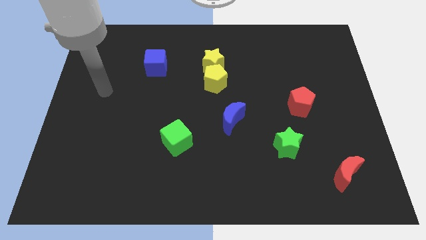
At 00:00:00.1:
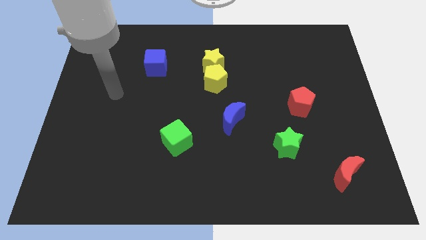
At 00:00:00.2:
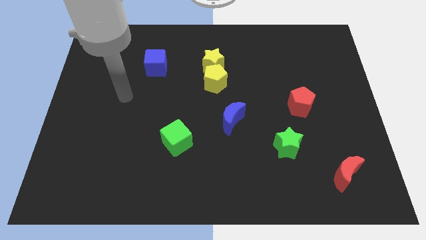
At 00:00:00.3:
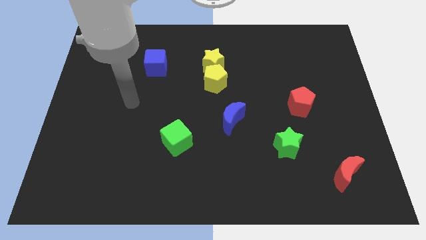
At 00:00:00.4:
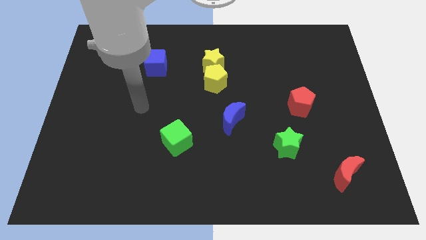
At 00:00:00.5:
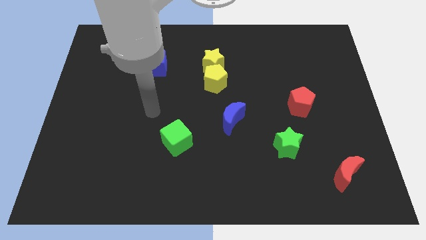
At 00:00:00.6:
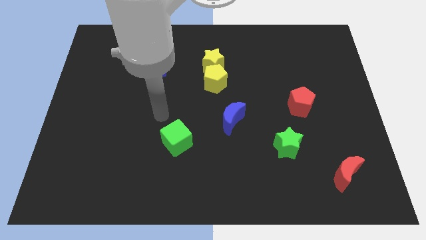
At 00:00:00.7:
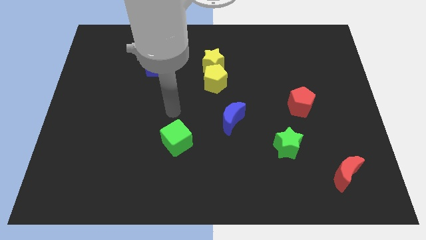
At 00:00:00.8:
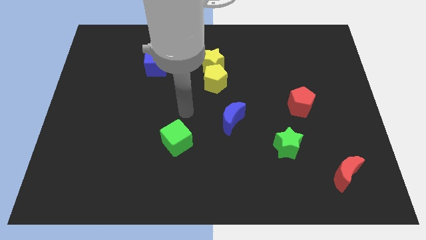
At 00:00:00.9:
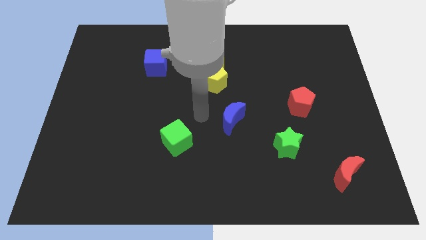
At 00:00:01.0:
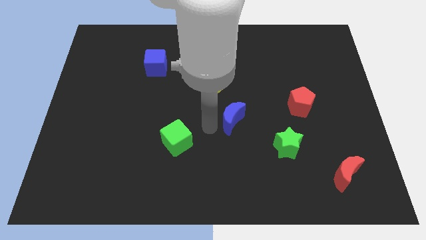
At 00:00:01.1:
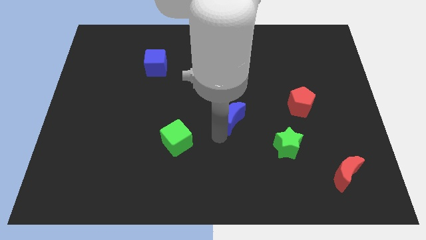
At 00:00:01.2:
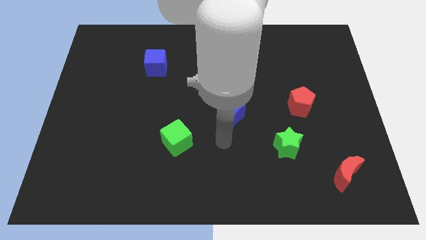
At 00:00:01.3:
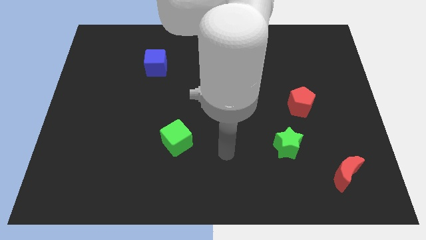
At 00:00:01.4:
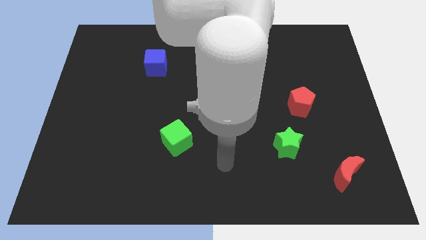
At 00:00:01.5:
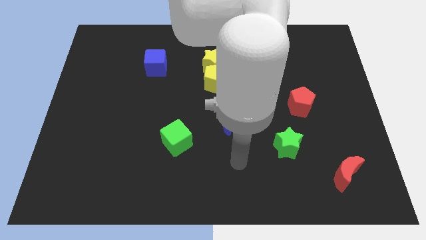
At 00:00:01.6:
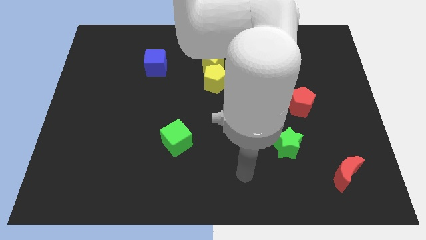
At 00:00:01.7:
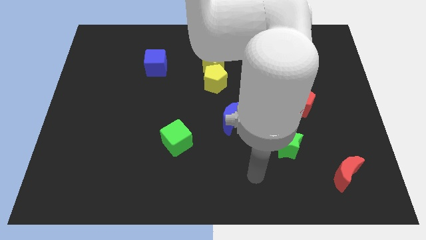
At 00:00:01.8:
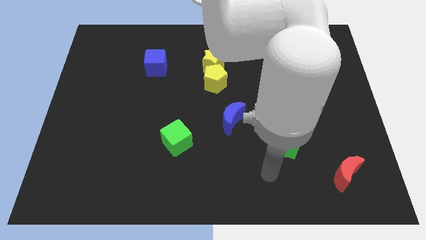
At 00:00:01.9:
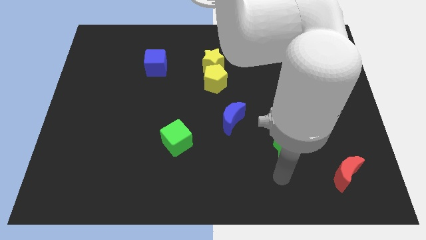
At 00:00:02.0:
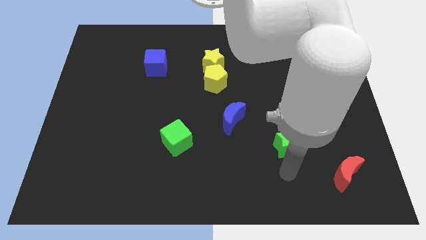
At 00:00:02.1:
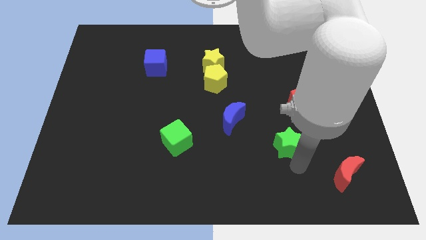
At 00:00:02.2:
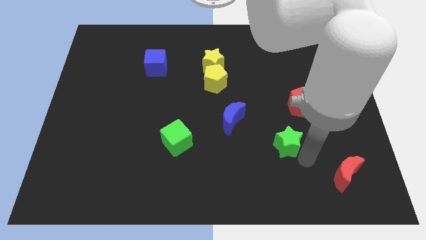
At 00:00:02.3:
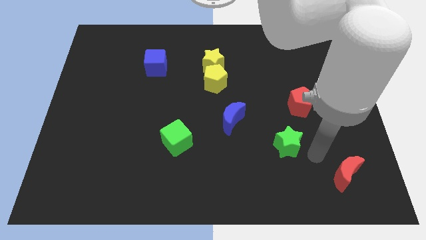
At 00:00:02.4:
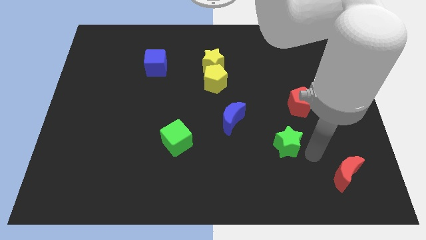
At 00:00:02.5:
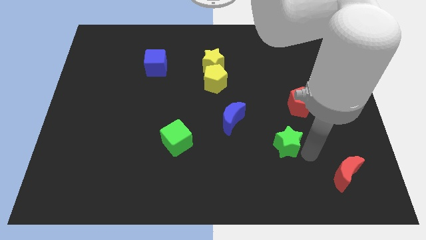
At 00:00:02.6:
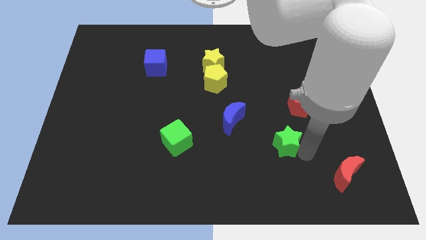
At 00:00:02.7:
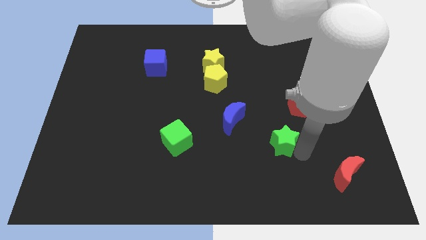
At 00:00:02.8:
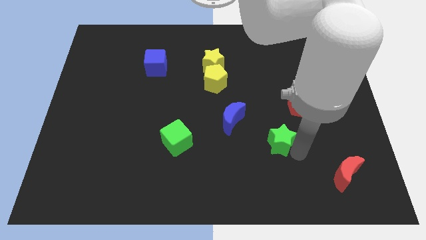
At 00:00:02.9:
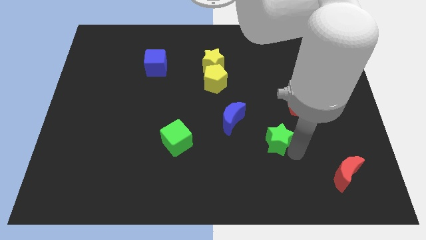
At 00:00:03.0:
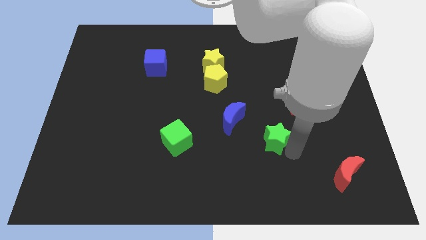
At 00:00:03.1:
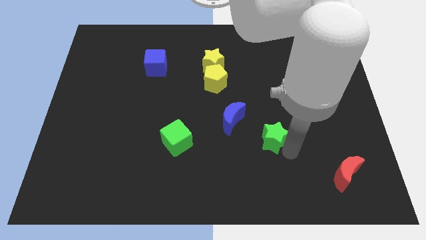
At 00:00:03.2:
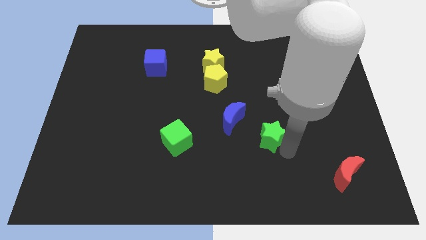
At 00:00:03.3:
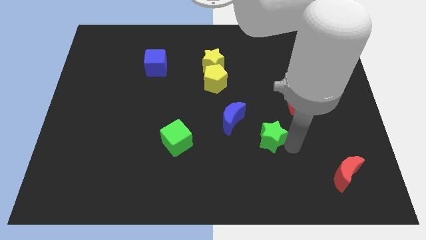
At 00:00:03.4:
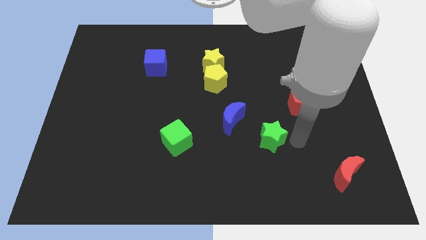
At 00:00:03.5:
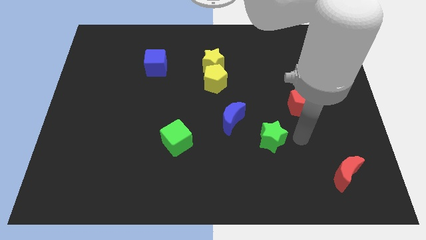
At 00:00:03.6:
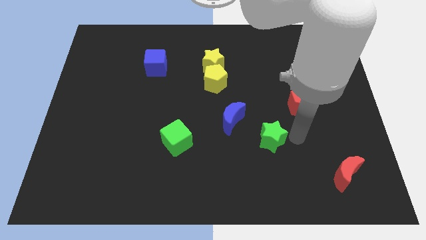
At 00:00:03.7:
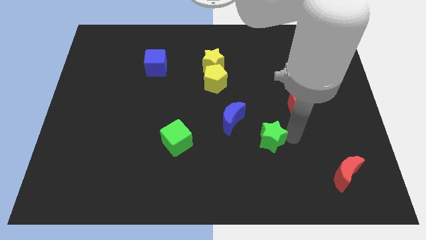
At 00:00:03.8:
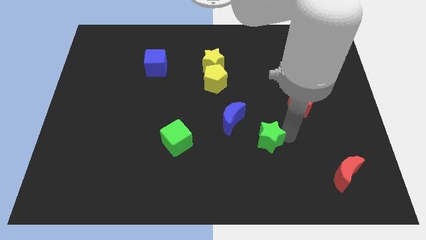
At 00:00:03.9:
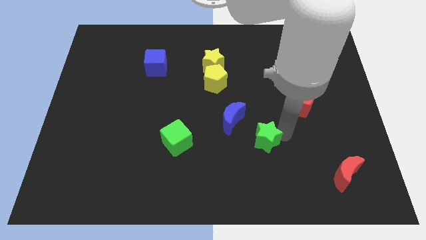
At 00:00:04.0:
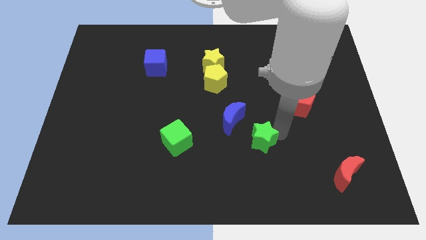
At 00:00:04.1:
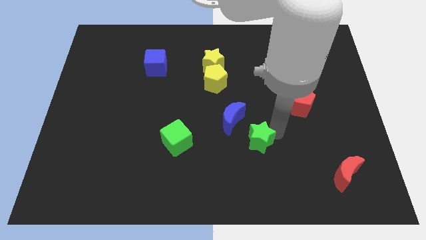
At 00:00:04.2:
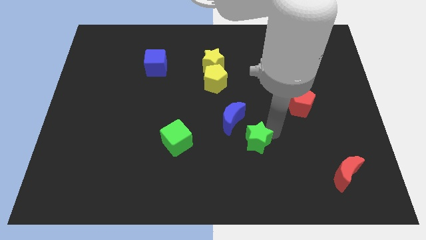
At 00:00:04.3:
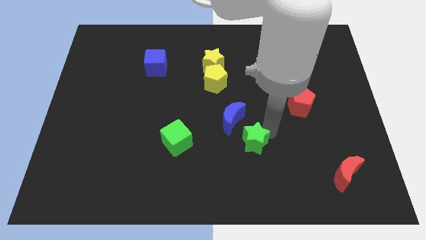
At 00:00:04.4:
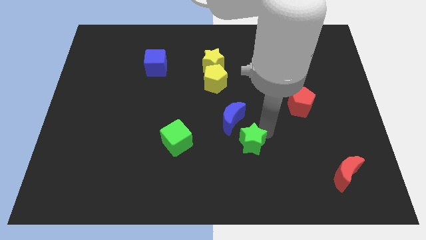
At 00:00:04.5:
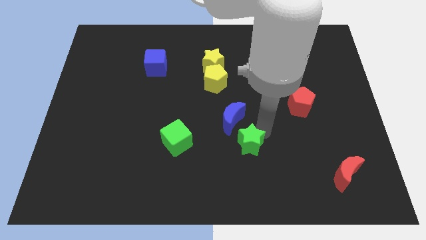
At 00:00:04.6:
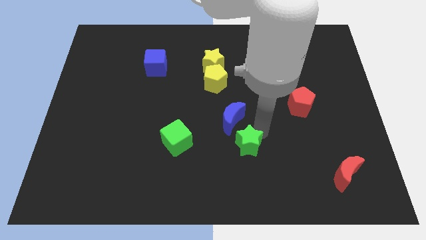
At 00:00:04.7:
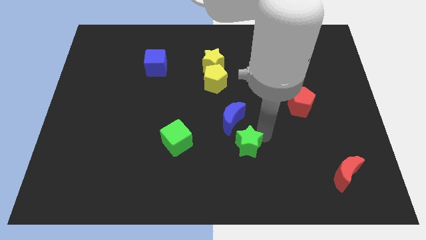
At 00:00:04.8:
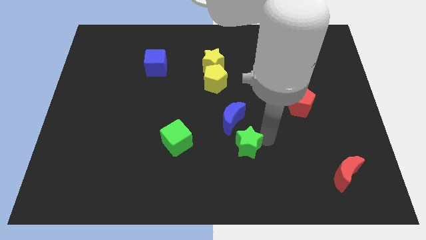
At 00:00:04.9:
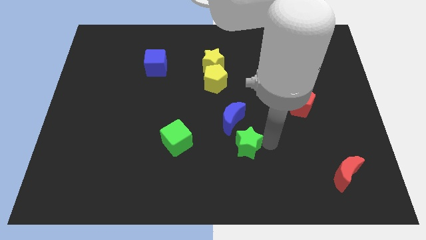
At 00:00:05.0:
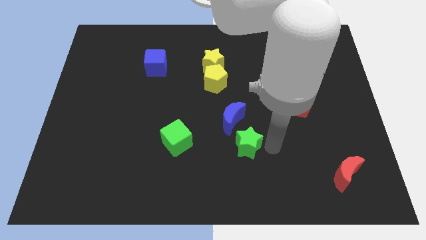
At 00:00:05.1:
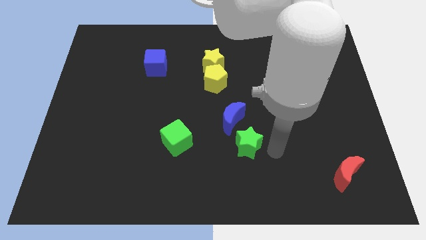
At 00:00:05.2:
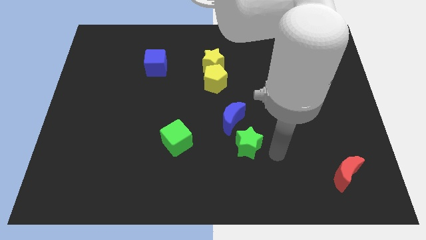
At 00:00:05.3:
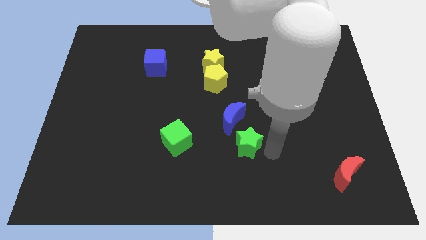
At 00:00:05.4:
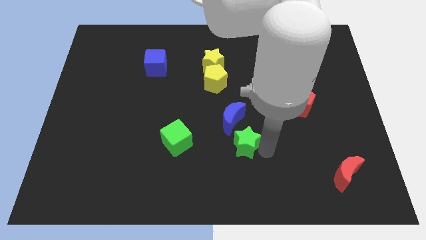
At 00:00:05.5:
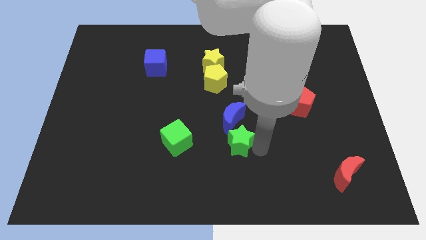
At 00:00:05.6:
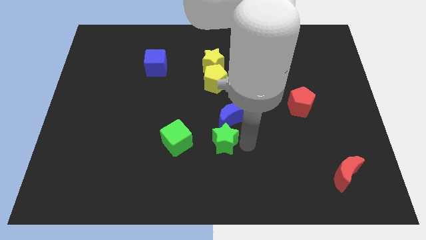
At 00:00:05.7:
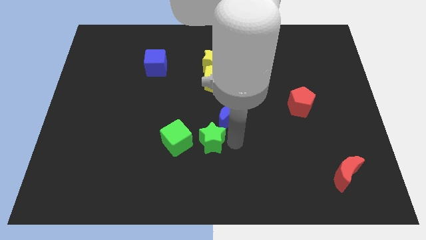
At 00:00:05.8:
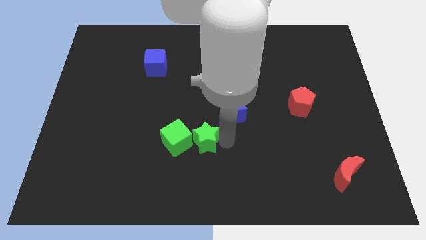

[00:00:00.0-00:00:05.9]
put the green star next to the green cube
